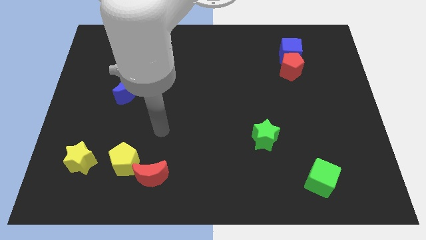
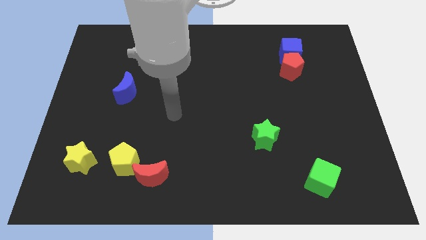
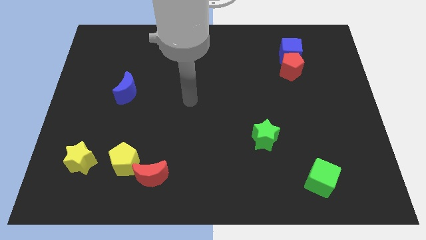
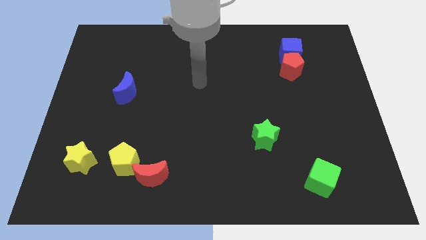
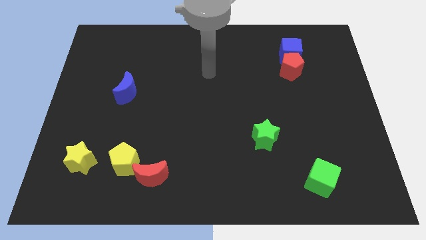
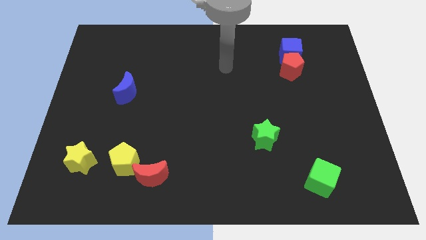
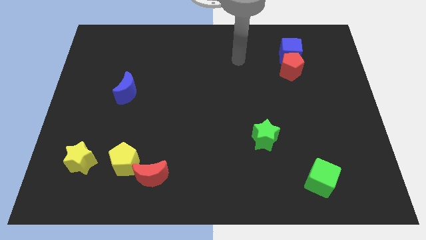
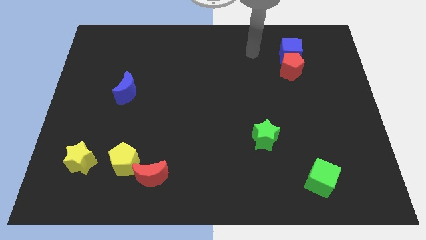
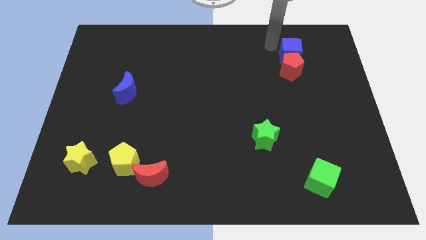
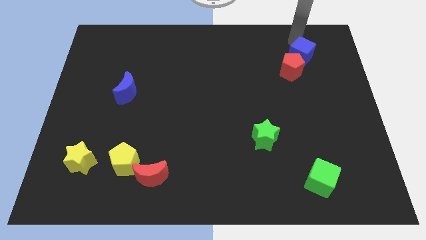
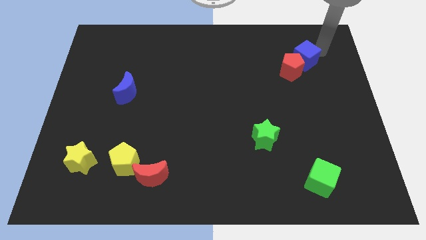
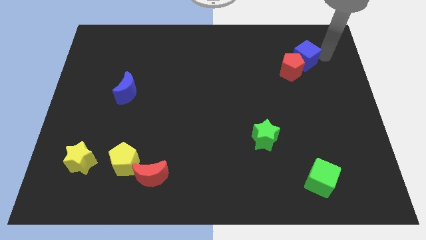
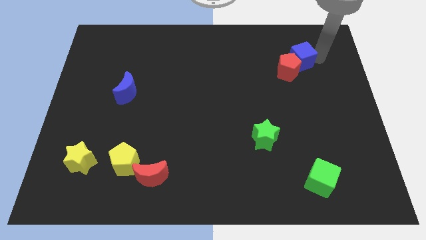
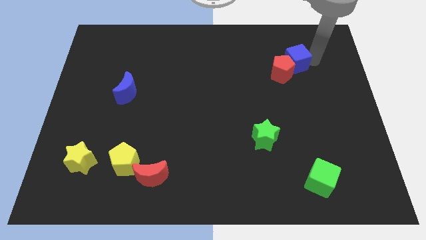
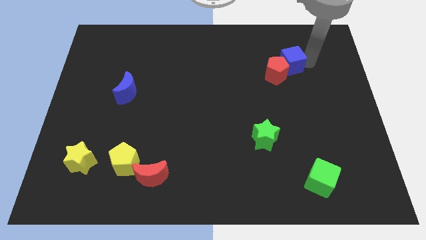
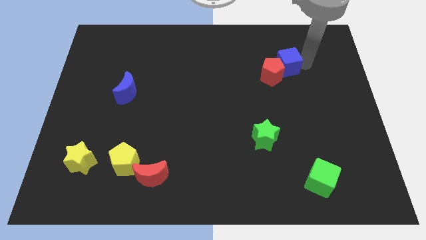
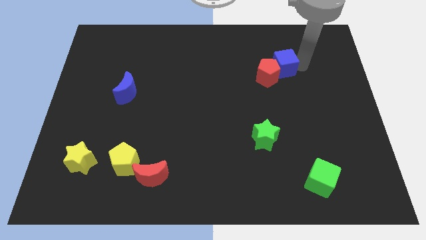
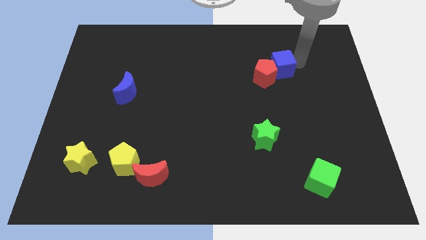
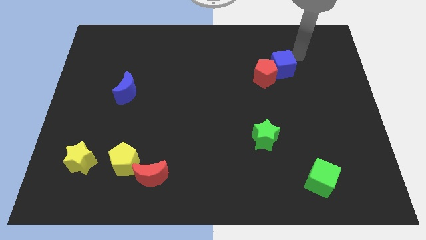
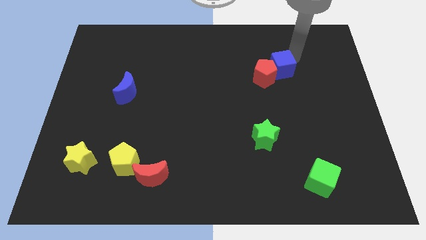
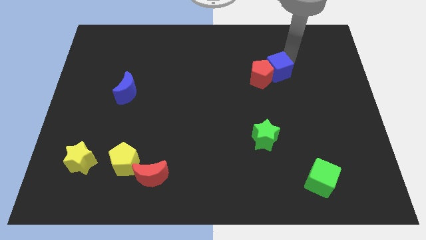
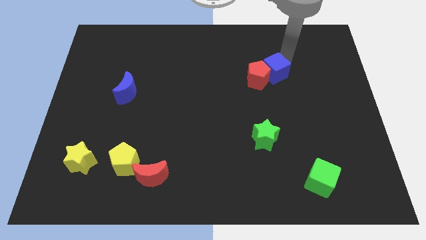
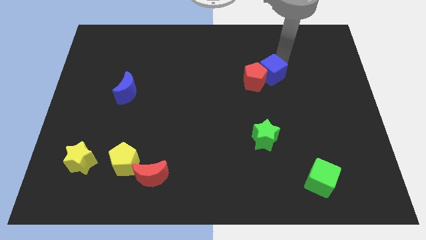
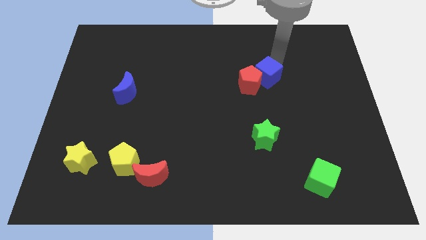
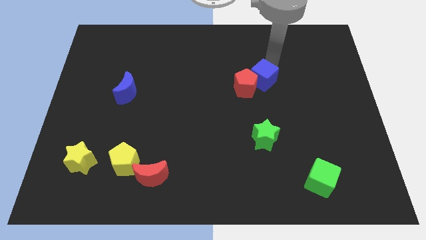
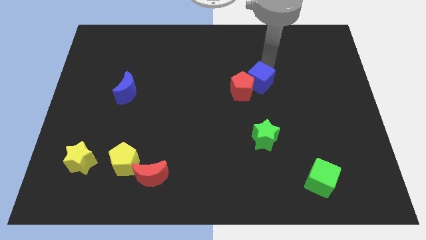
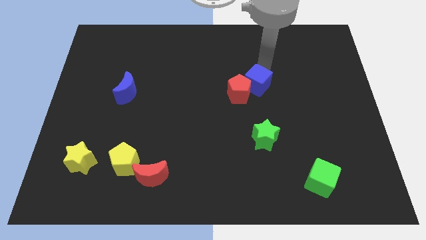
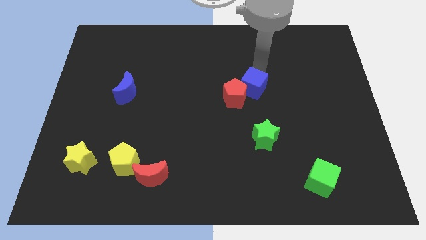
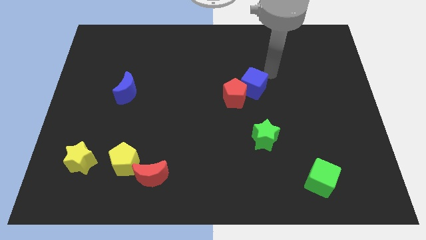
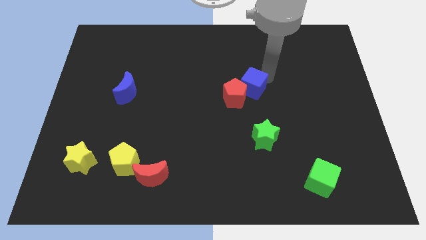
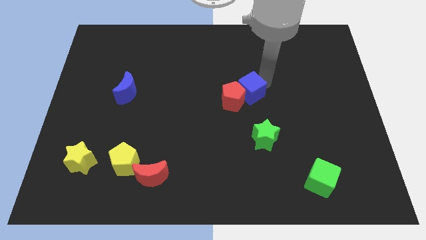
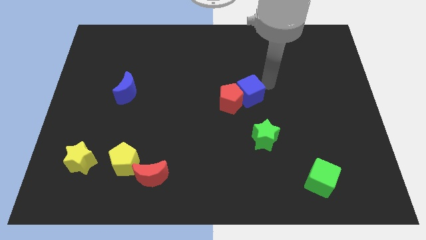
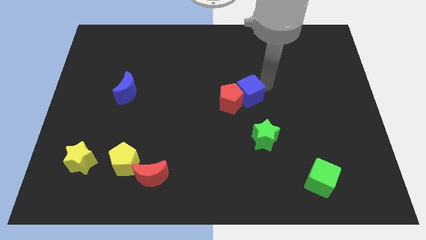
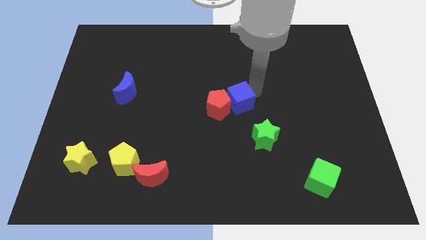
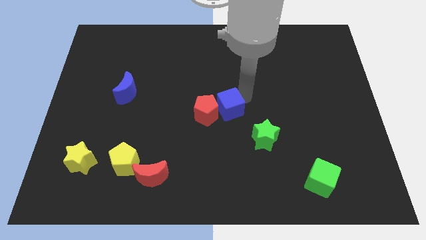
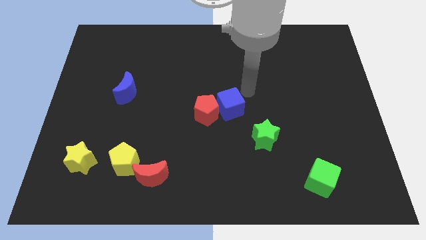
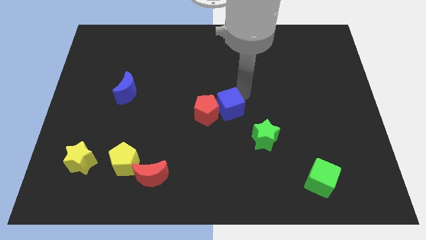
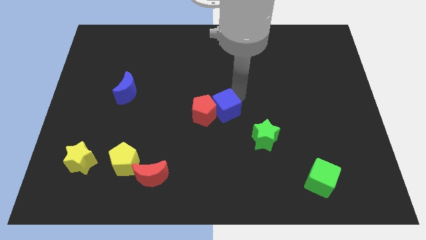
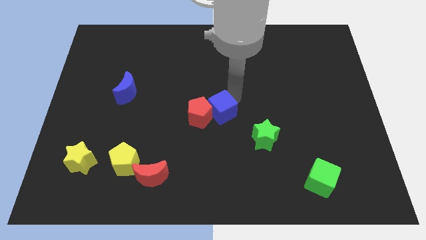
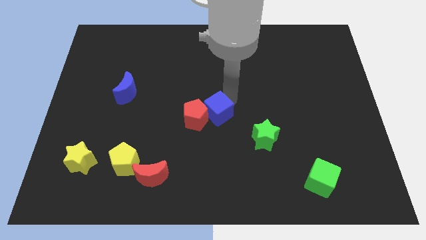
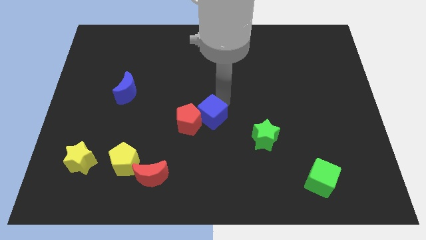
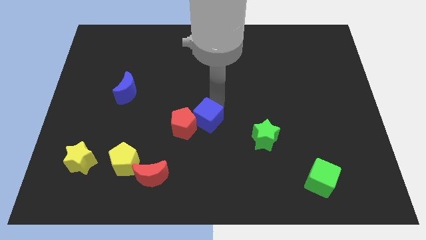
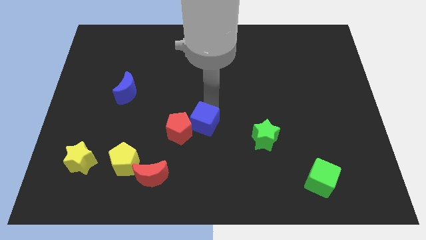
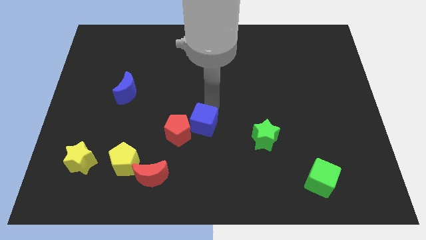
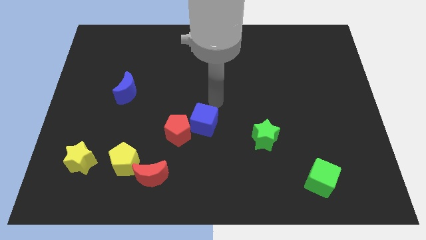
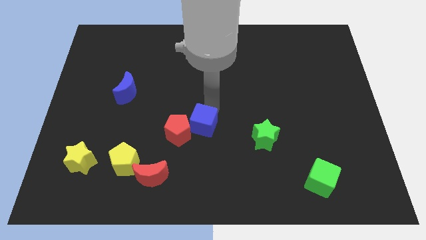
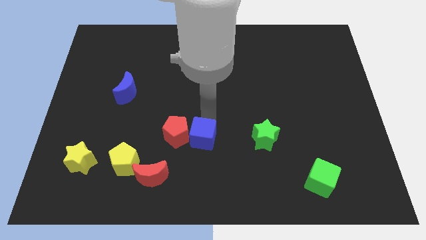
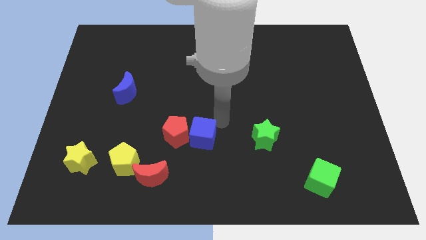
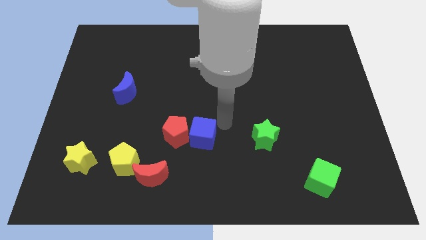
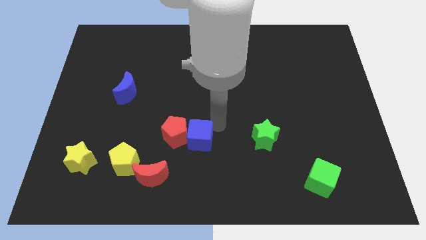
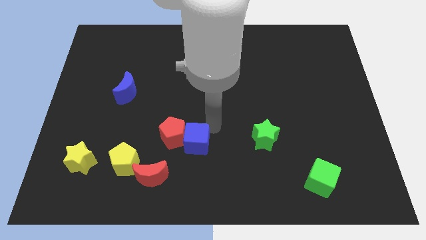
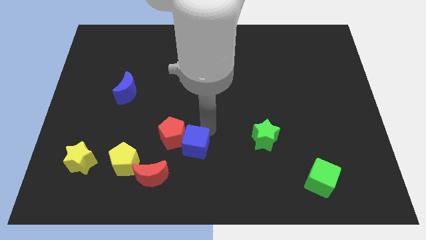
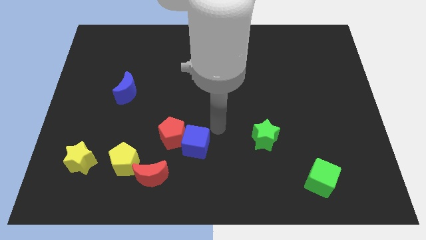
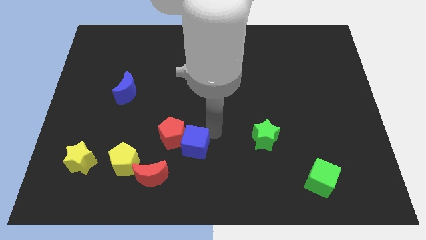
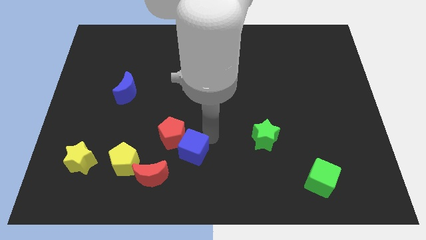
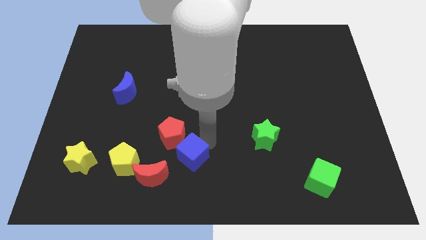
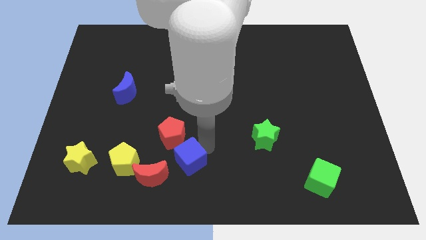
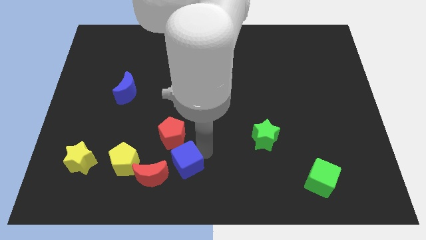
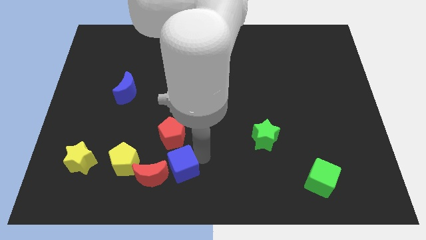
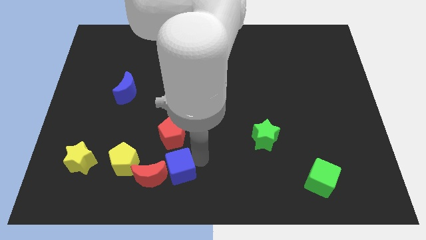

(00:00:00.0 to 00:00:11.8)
push the blue cube close to the red moon

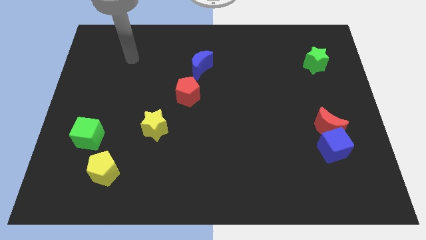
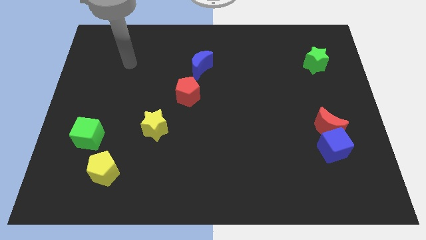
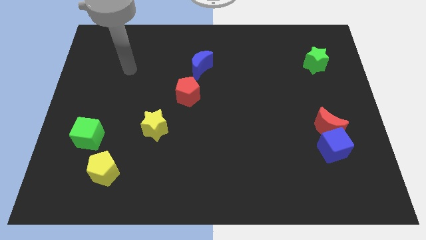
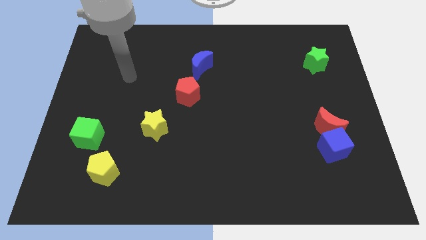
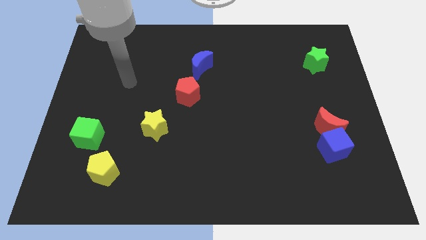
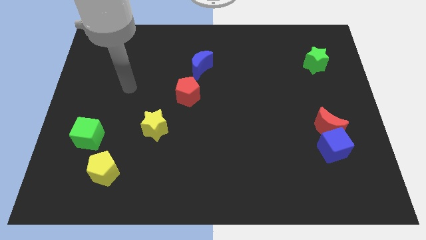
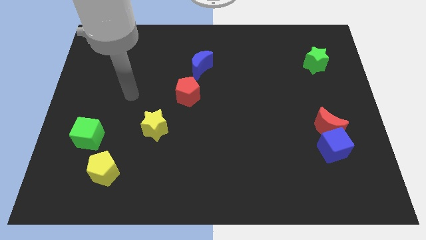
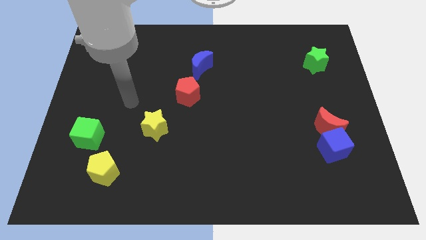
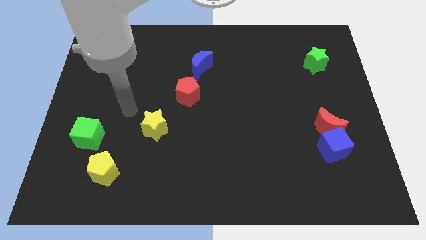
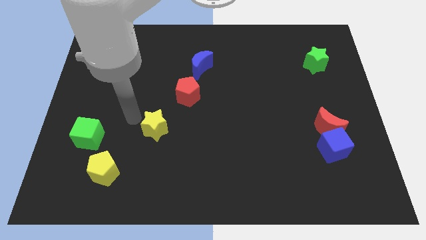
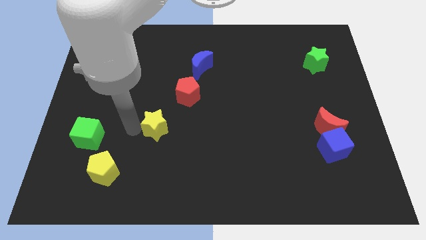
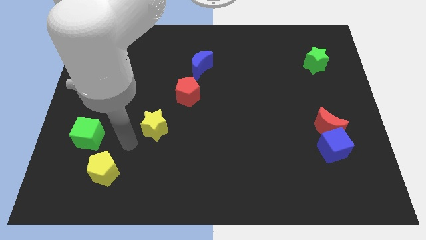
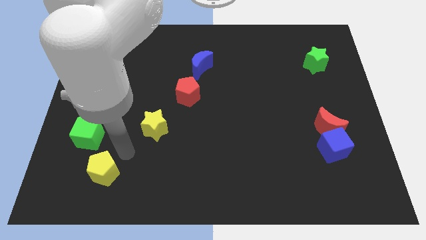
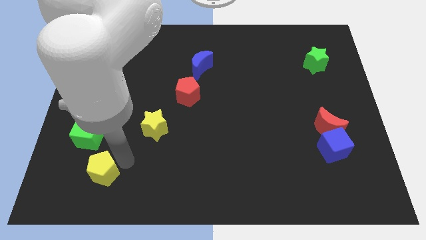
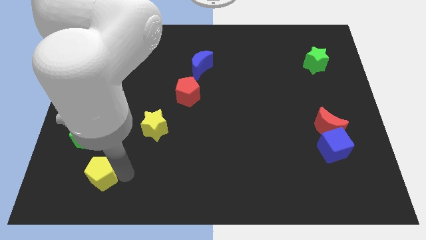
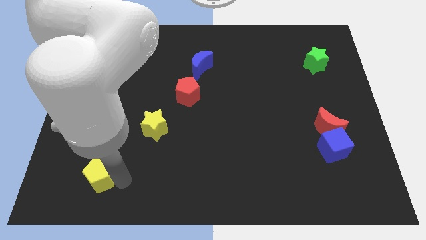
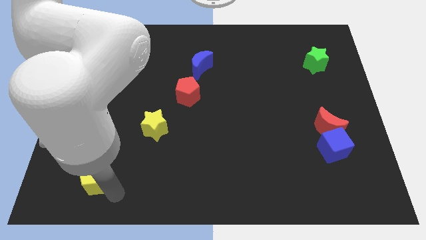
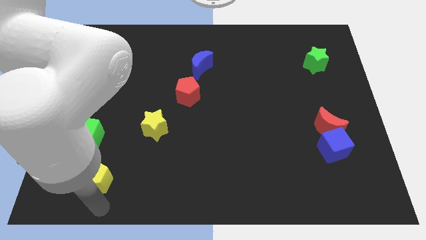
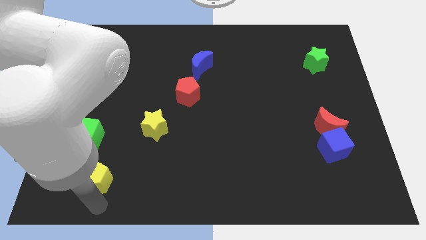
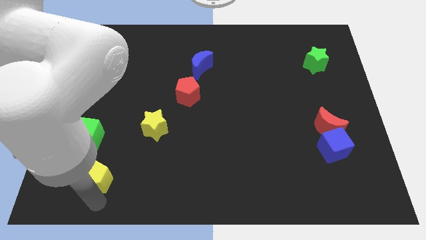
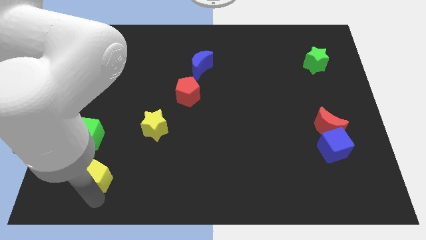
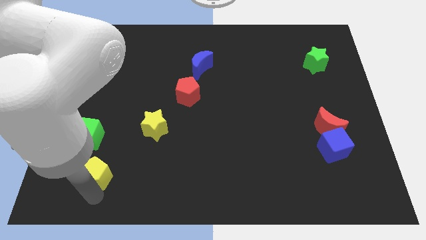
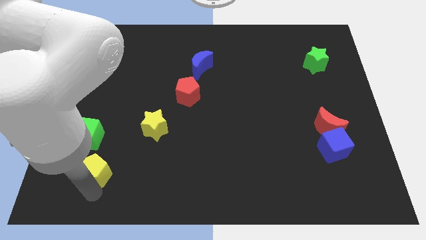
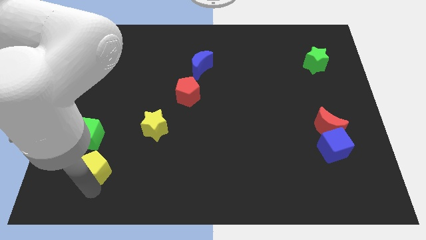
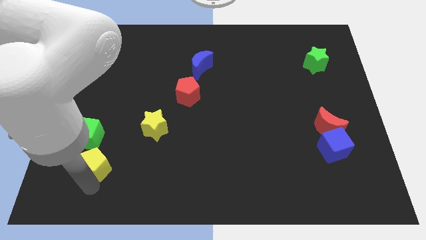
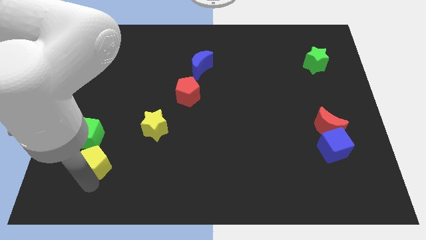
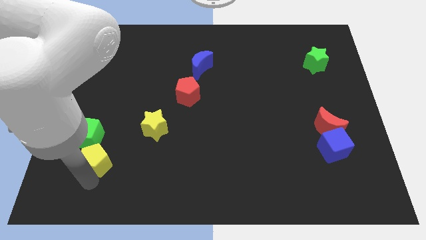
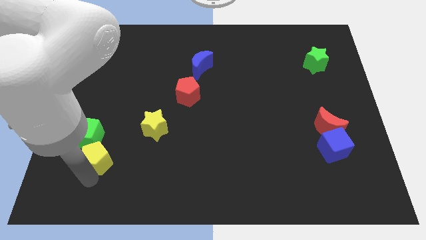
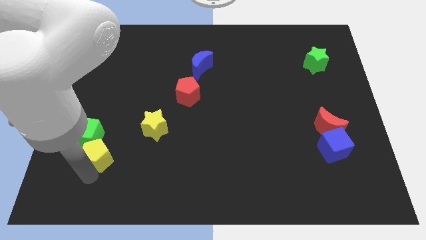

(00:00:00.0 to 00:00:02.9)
put the yellow pentagon towards the green cube
